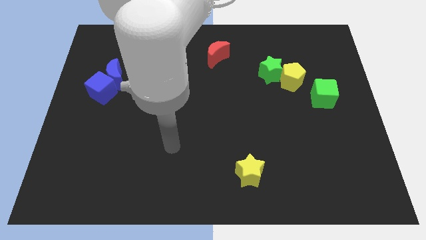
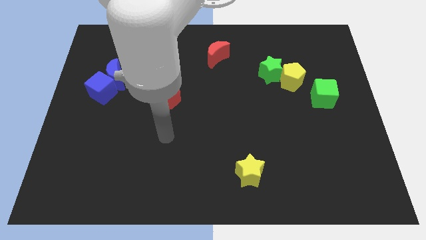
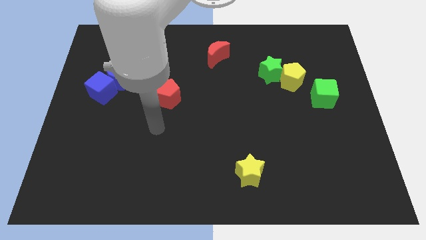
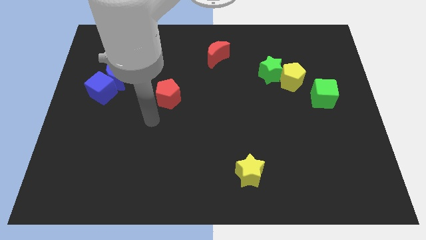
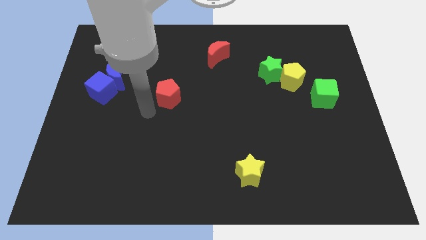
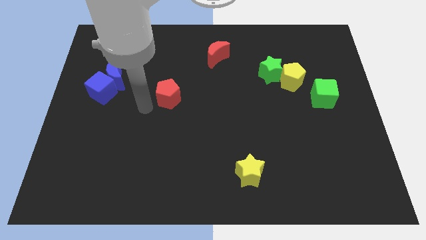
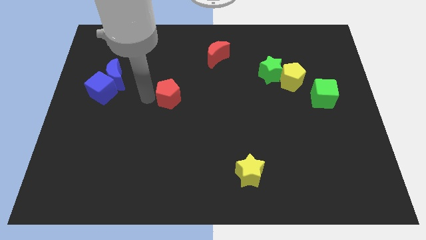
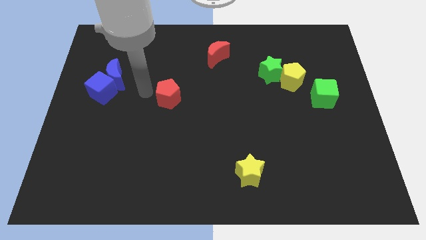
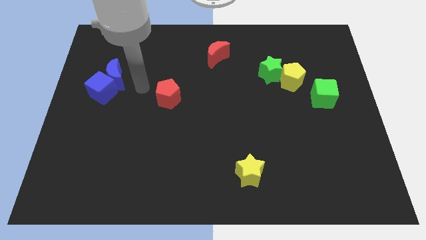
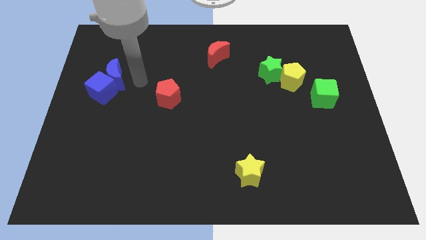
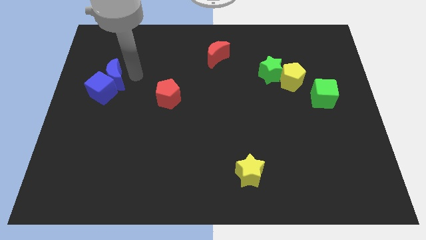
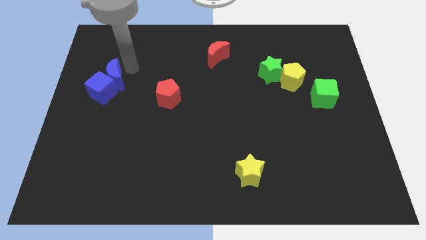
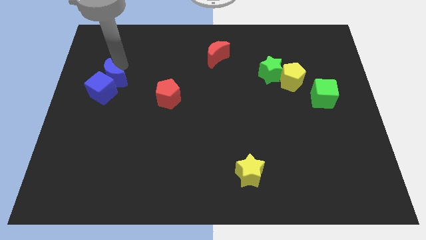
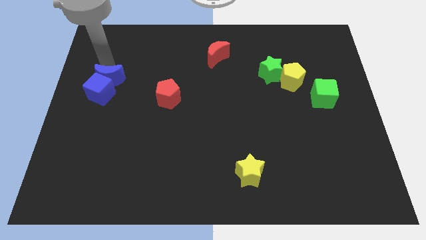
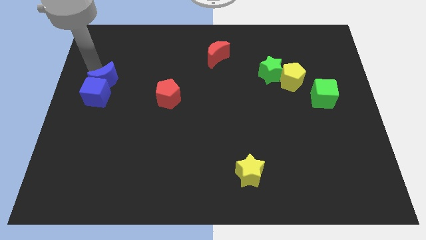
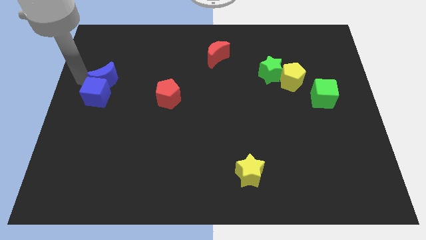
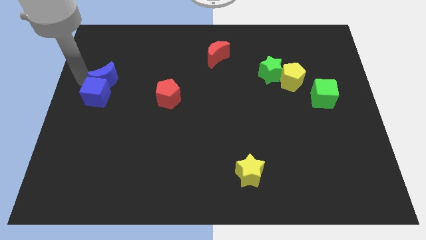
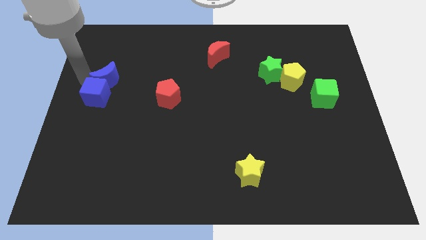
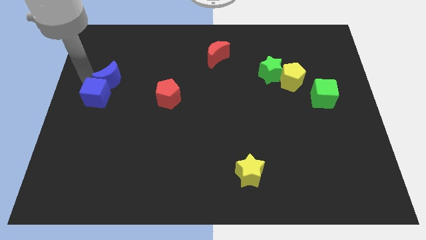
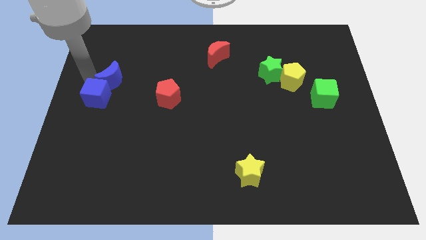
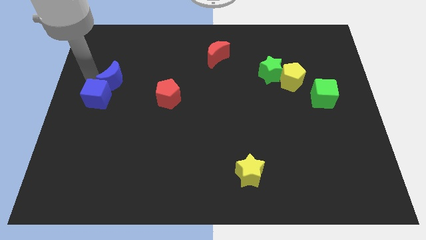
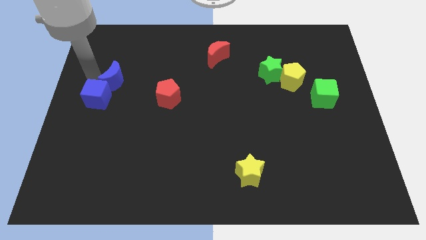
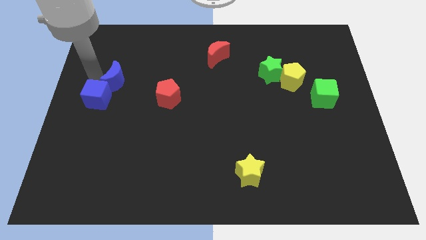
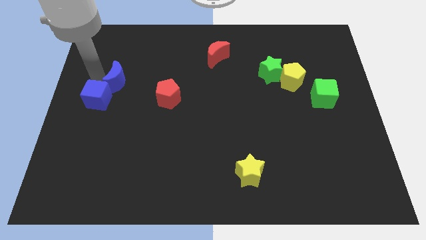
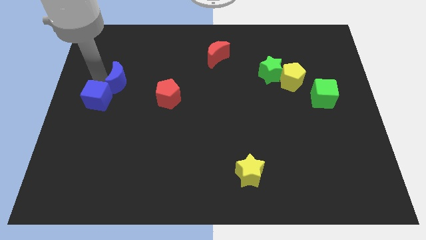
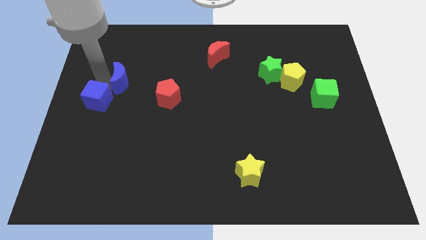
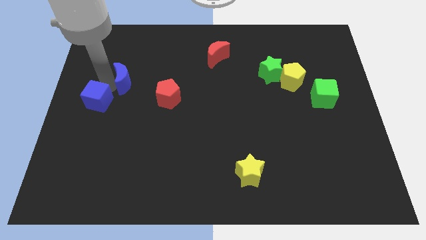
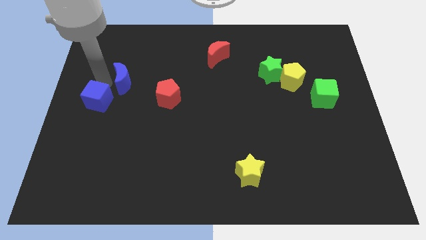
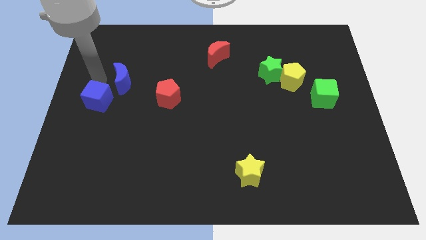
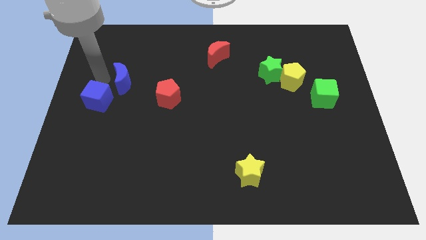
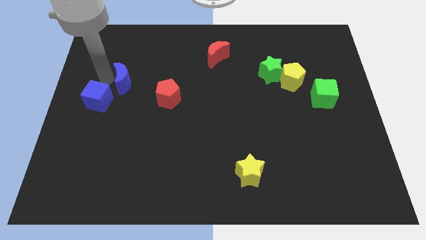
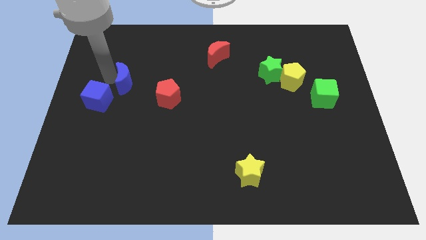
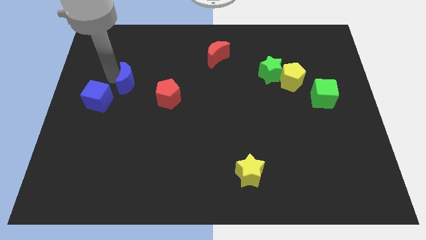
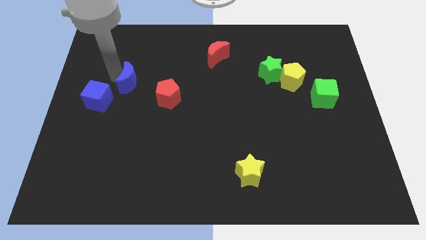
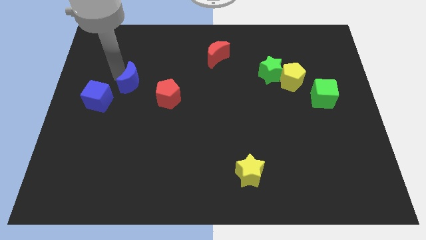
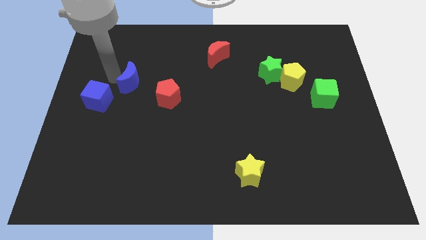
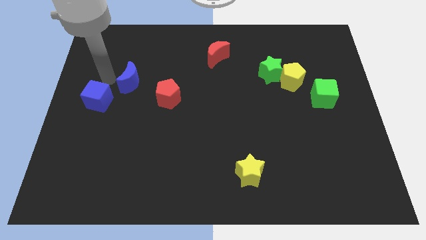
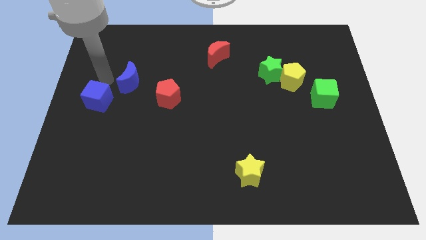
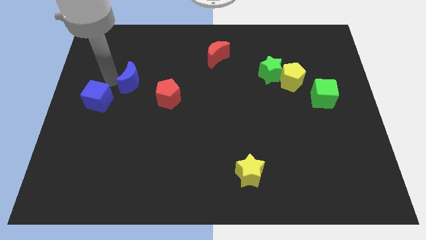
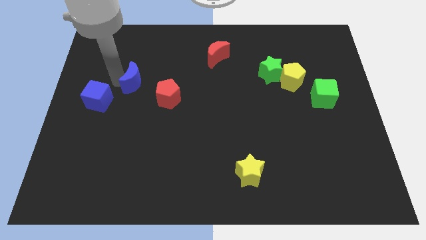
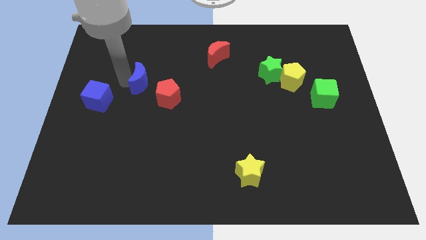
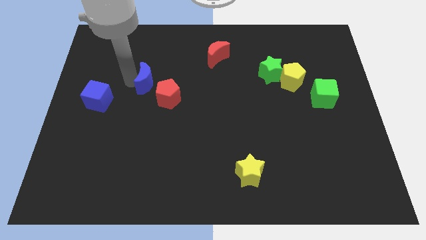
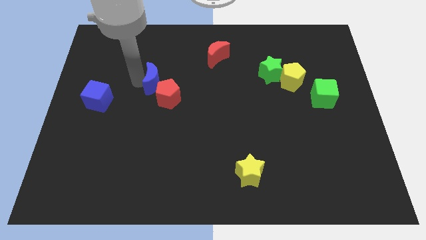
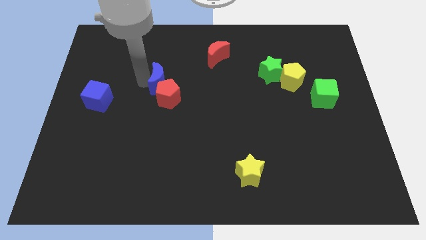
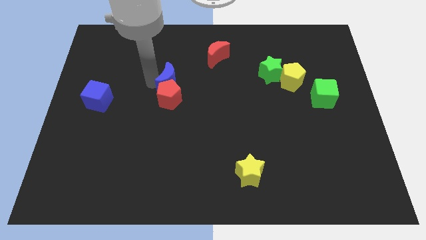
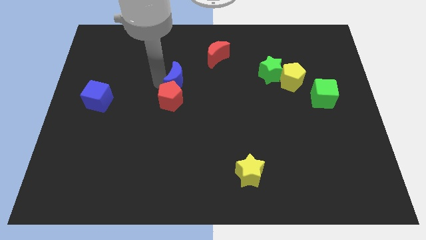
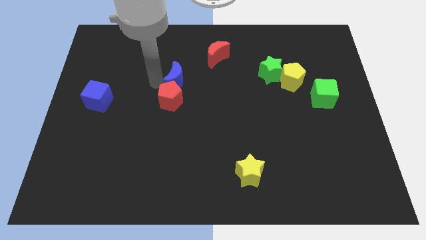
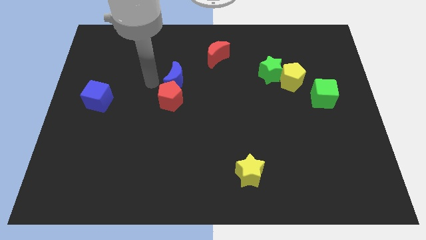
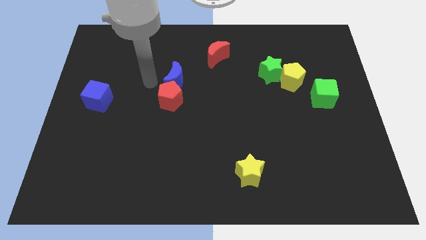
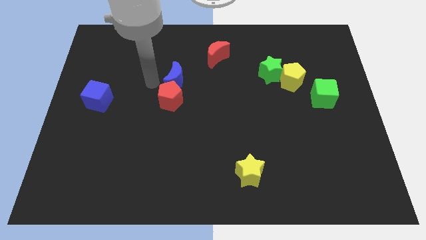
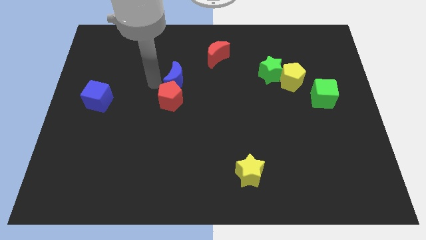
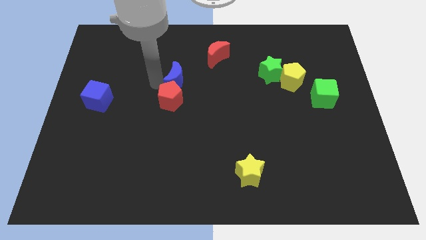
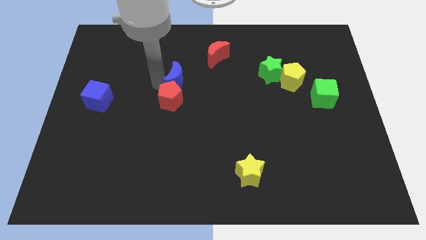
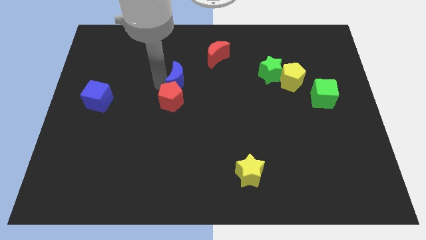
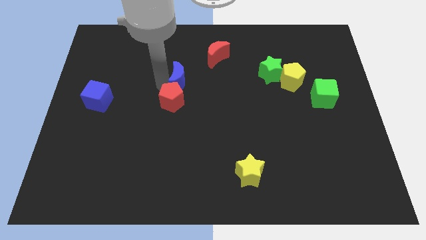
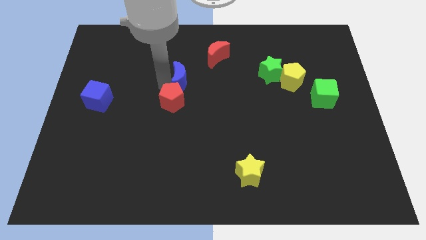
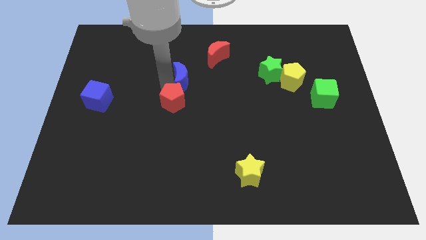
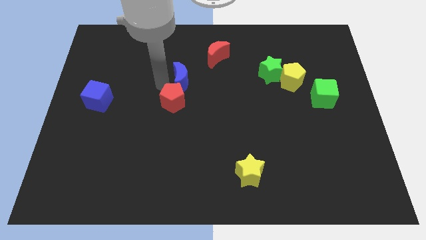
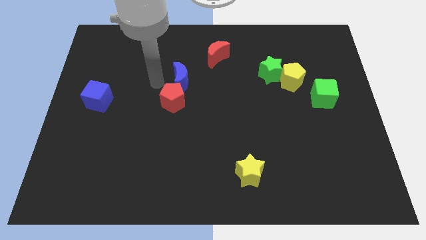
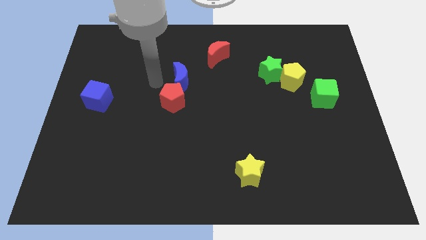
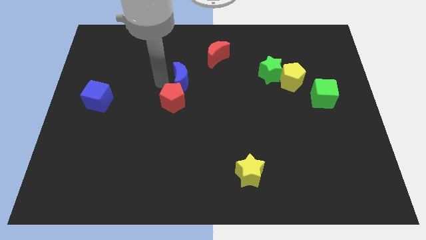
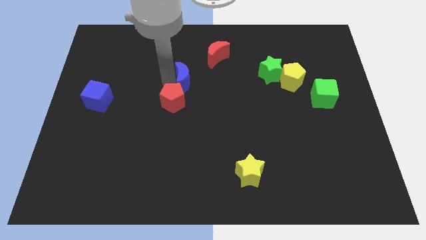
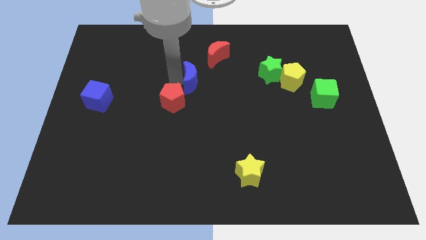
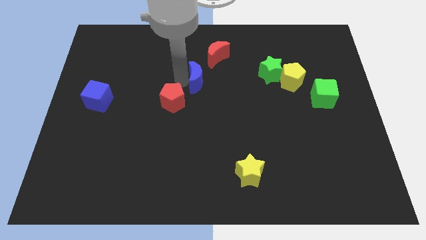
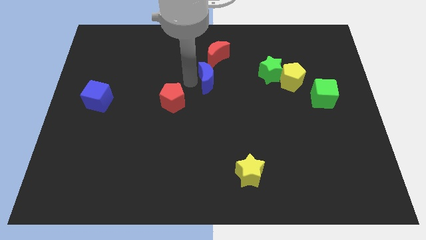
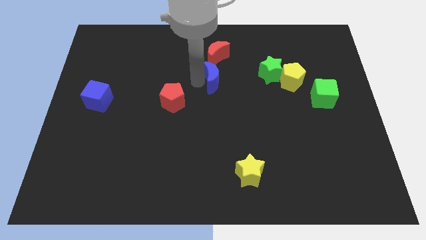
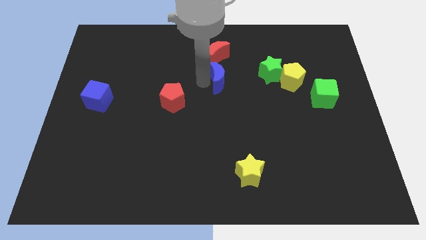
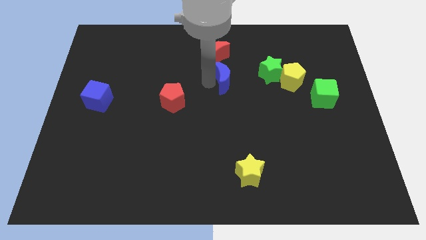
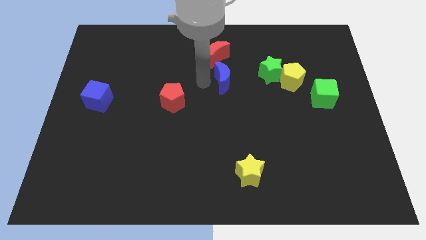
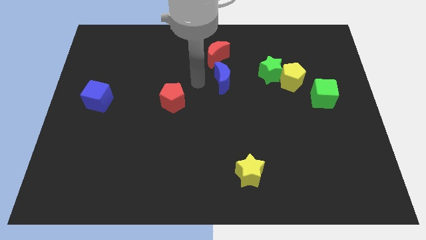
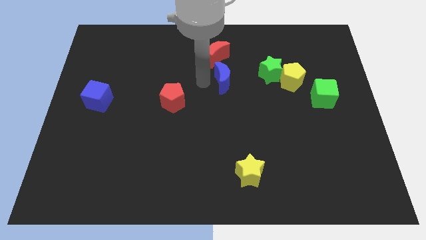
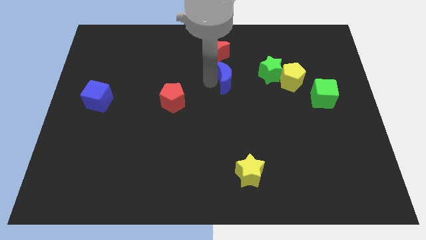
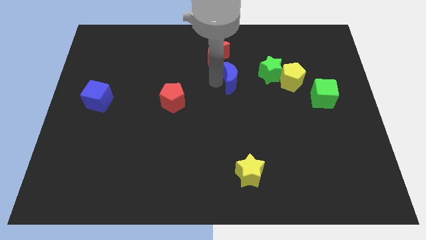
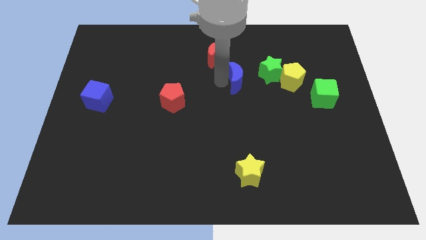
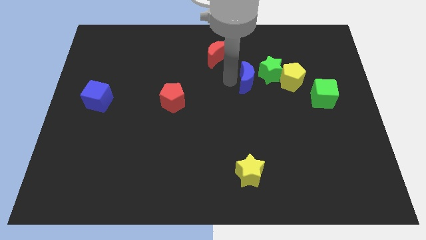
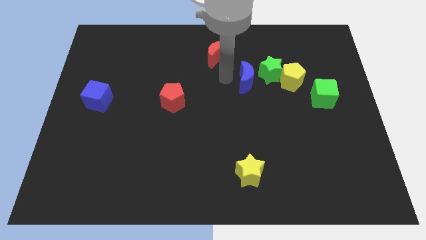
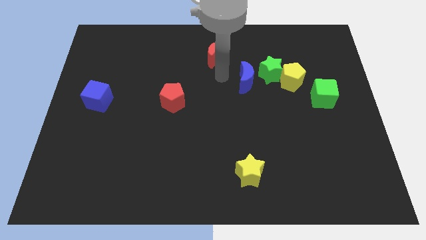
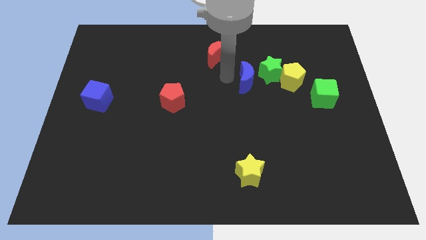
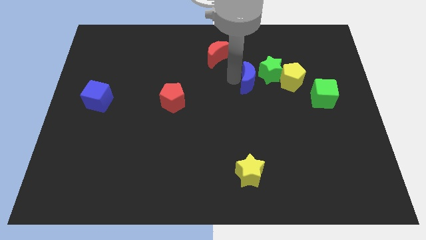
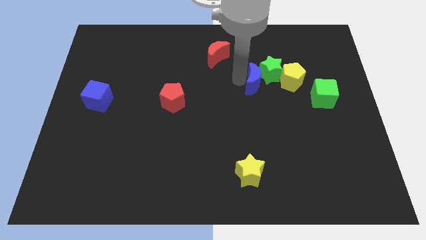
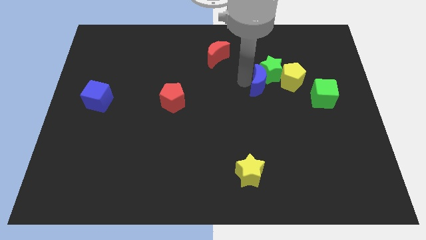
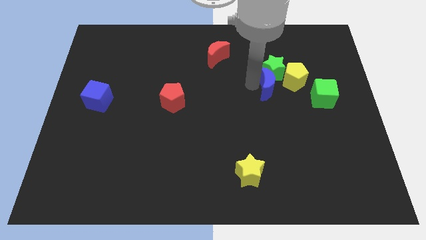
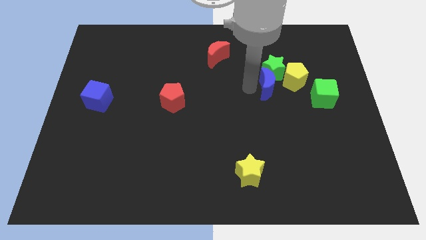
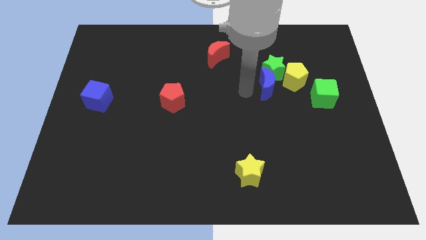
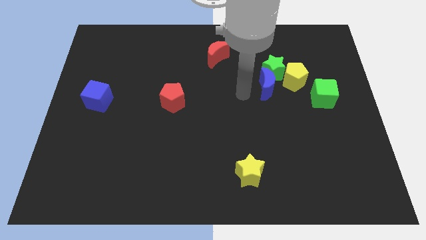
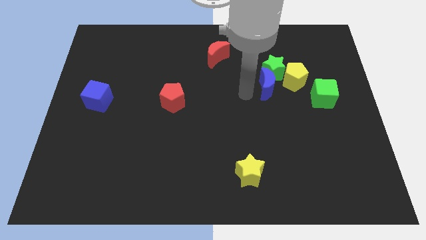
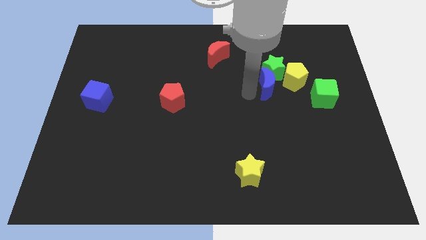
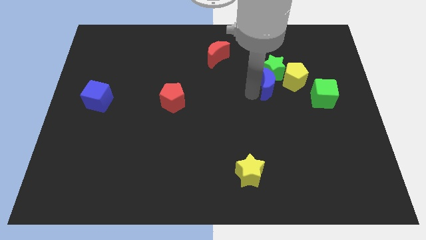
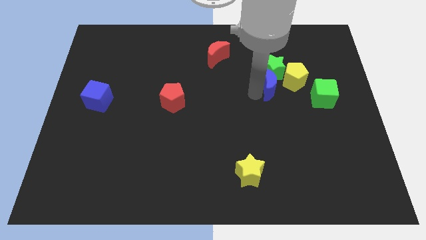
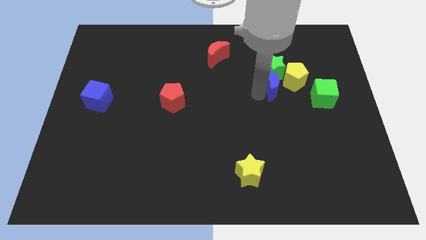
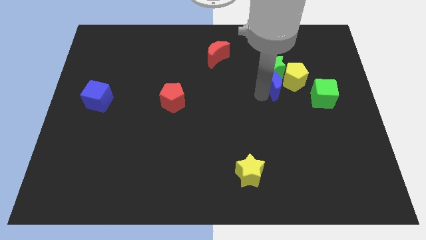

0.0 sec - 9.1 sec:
push the blue moon close to the yellow pentagon
